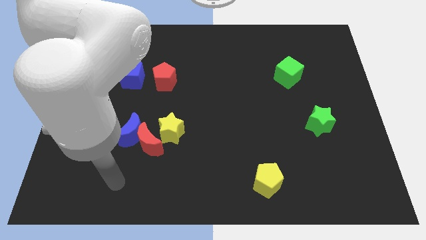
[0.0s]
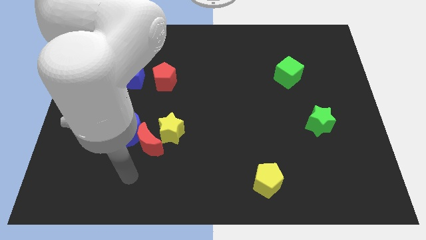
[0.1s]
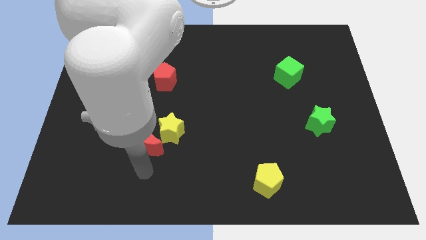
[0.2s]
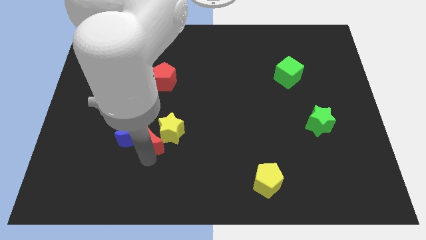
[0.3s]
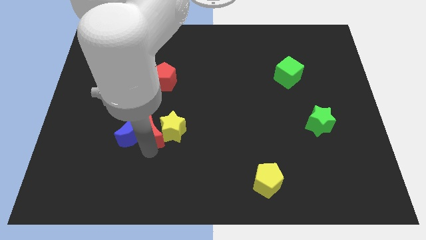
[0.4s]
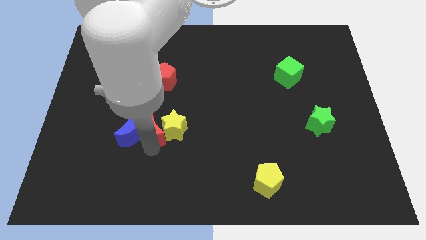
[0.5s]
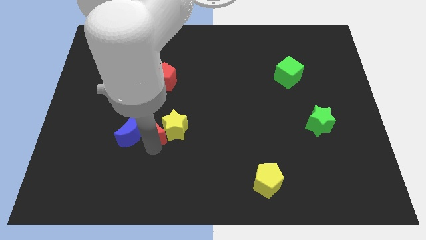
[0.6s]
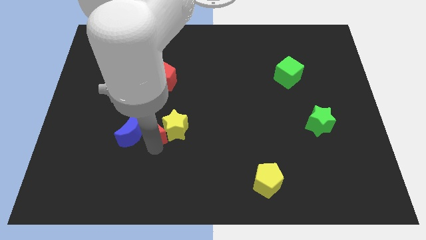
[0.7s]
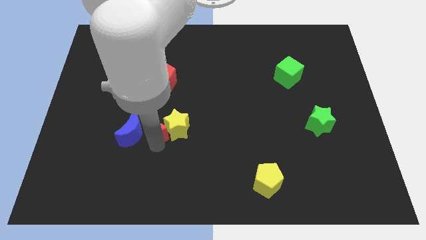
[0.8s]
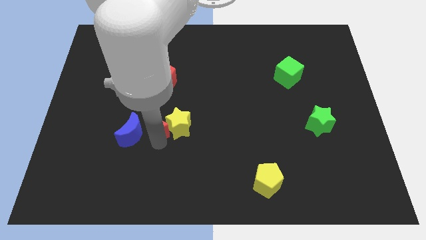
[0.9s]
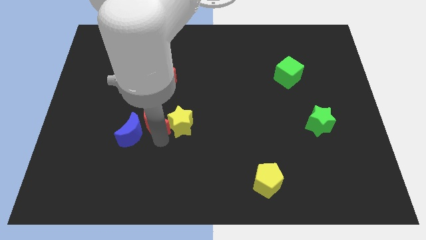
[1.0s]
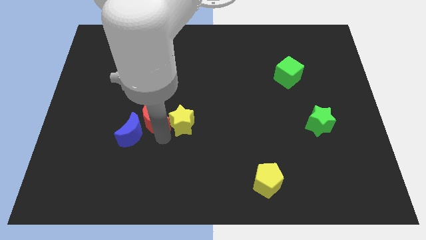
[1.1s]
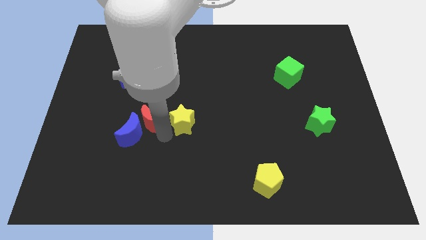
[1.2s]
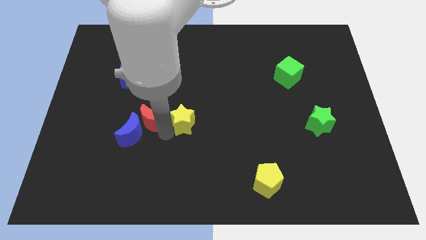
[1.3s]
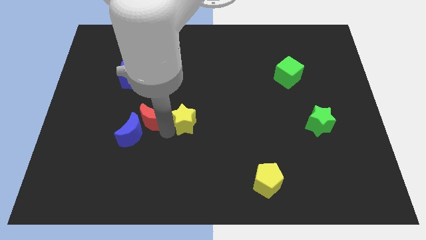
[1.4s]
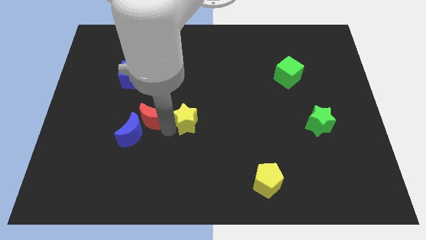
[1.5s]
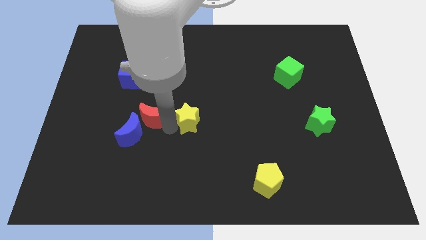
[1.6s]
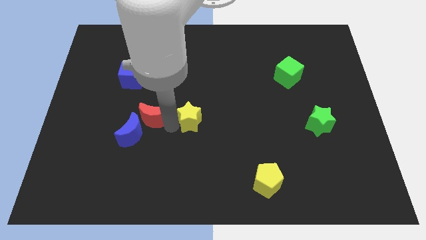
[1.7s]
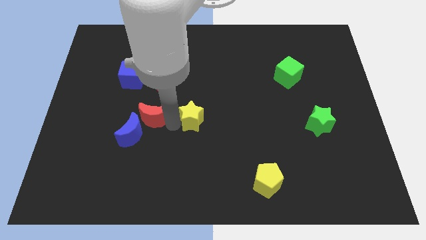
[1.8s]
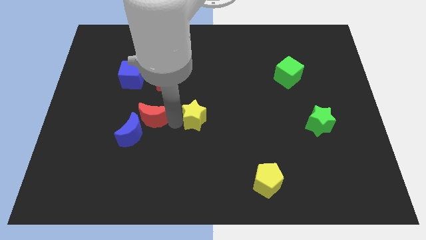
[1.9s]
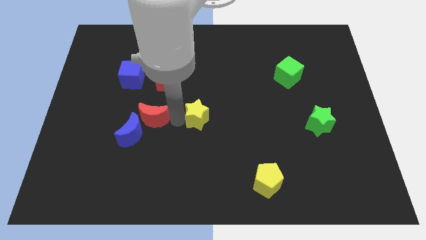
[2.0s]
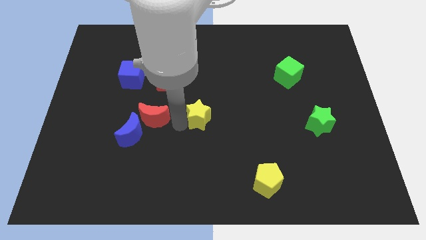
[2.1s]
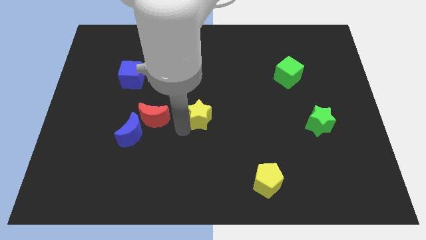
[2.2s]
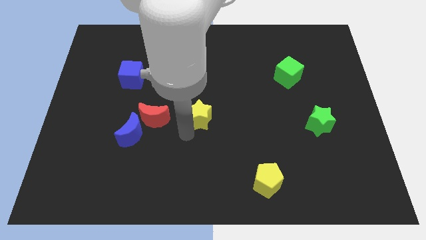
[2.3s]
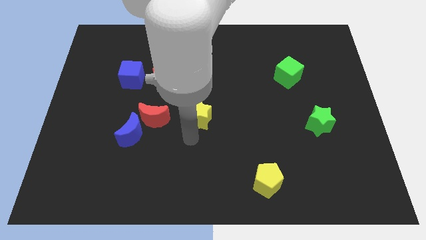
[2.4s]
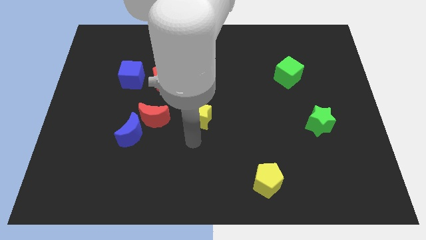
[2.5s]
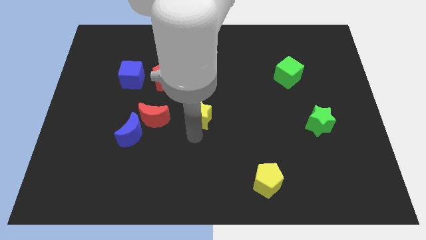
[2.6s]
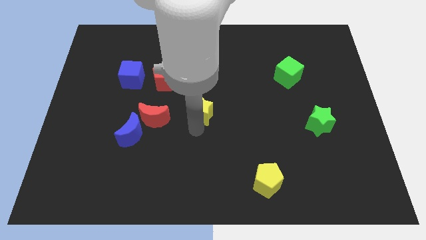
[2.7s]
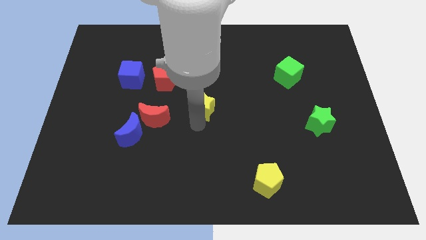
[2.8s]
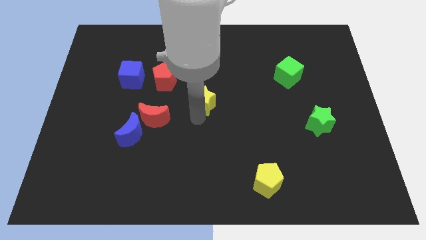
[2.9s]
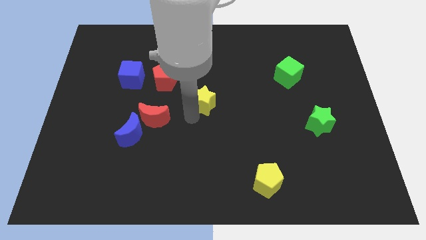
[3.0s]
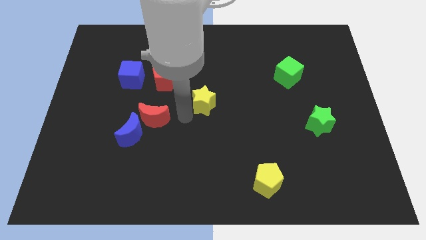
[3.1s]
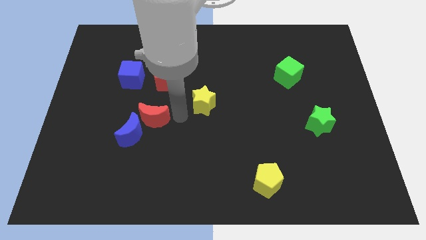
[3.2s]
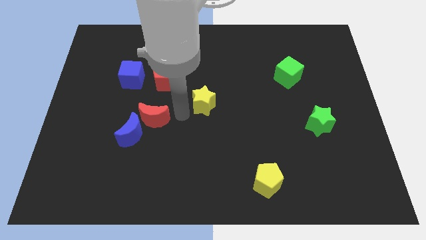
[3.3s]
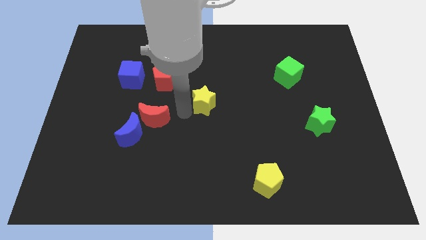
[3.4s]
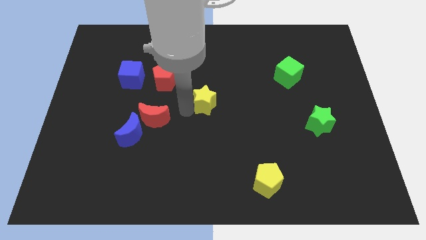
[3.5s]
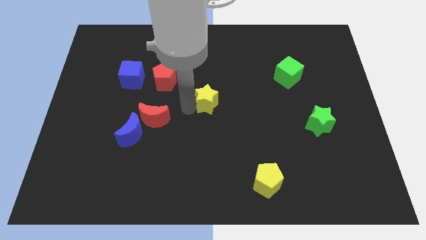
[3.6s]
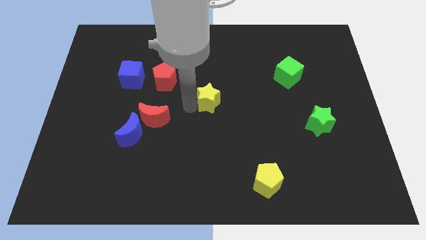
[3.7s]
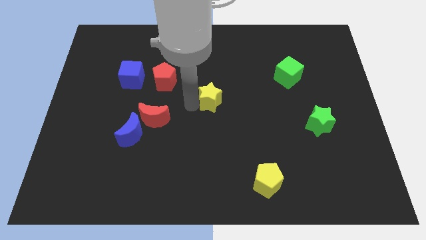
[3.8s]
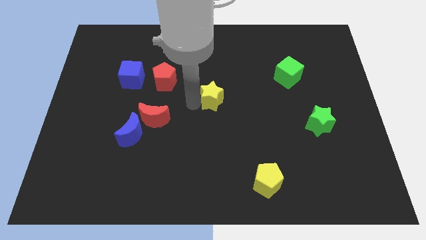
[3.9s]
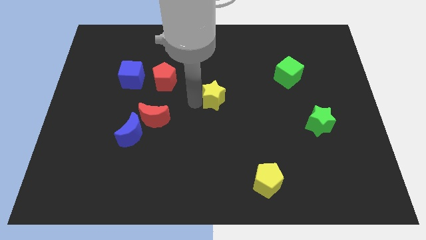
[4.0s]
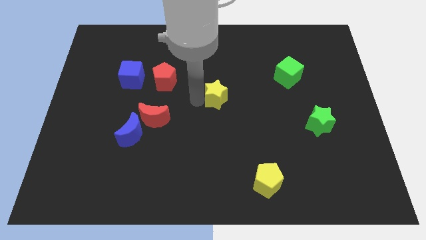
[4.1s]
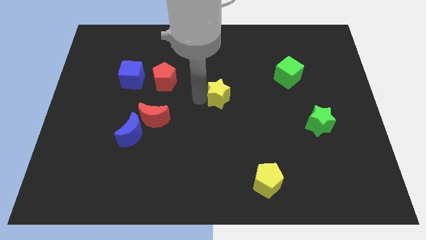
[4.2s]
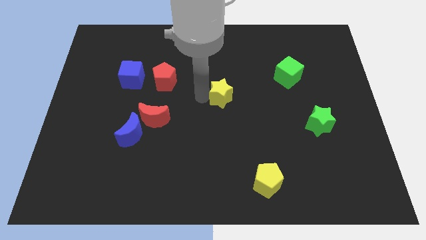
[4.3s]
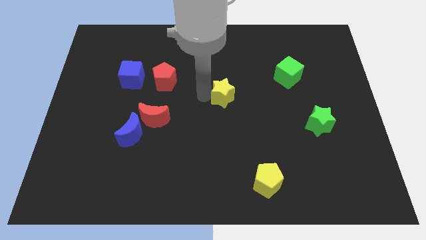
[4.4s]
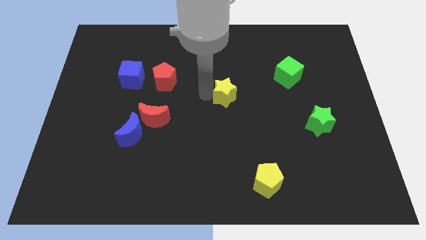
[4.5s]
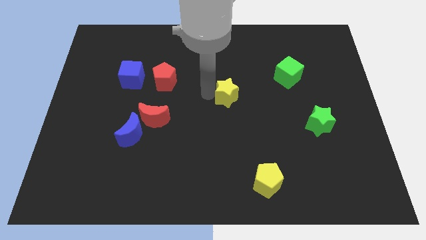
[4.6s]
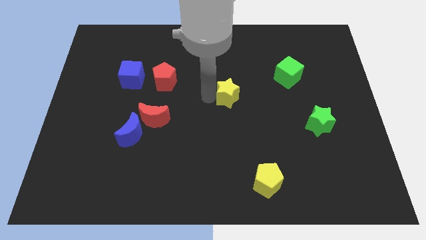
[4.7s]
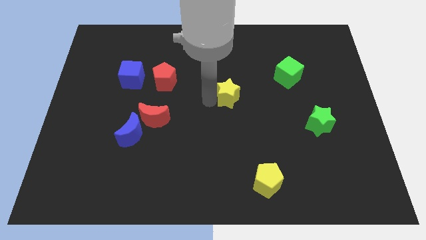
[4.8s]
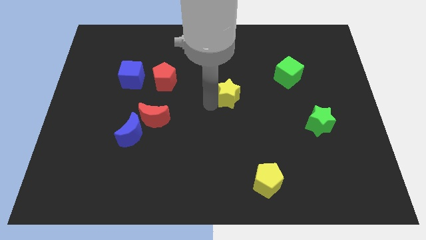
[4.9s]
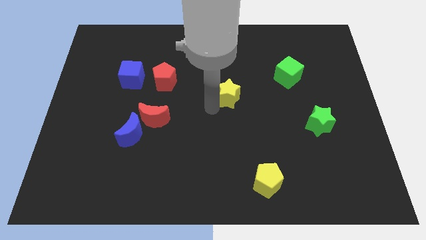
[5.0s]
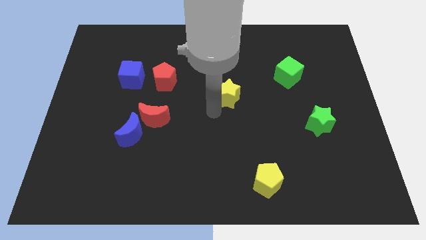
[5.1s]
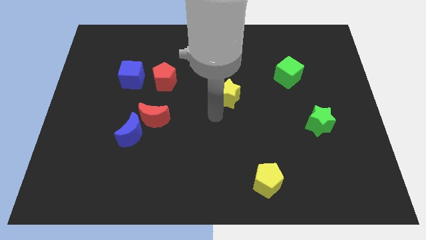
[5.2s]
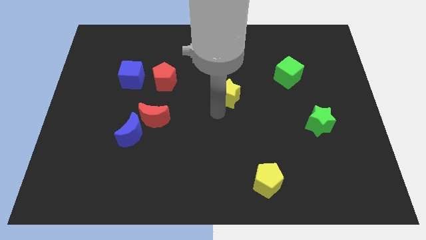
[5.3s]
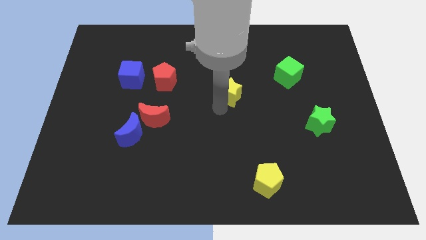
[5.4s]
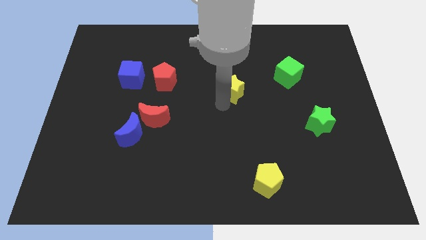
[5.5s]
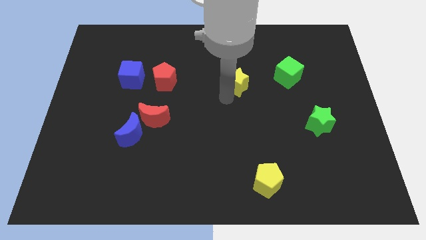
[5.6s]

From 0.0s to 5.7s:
move the yellow star up and then right

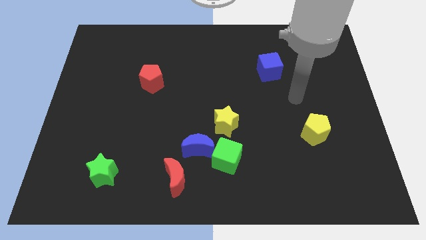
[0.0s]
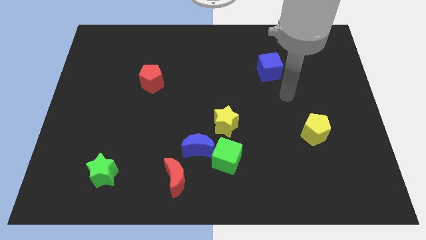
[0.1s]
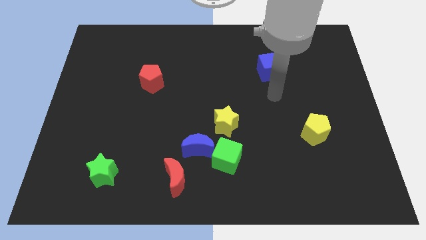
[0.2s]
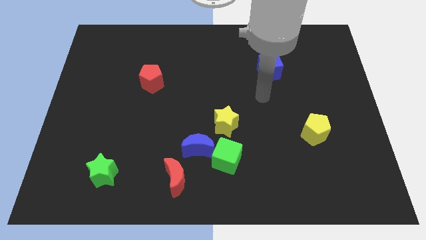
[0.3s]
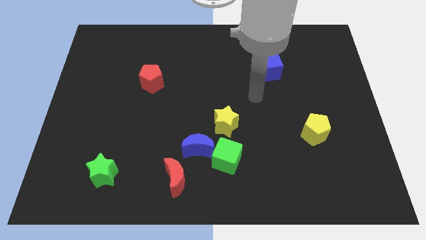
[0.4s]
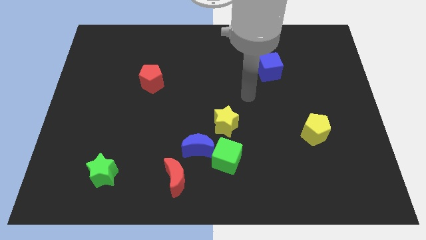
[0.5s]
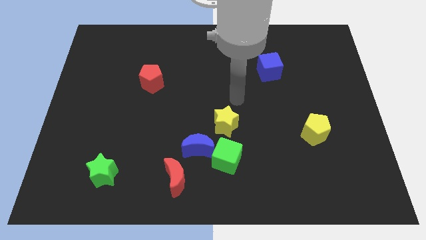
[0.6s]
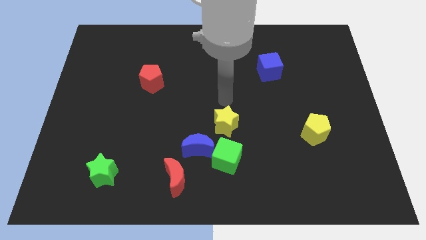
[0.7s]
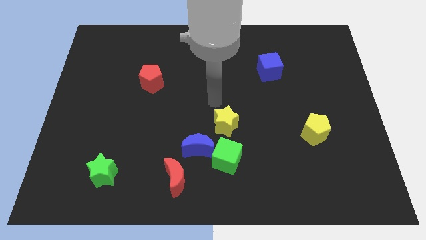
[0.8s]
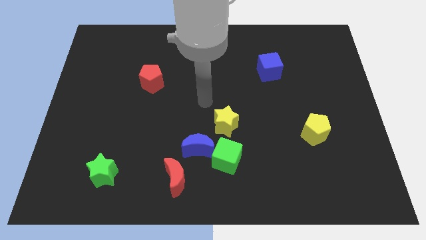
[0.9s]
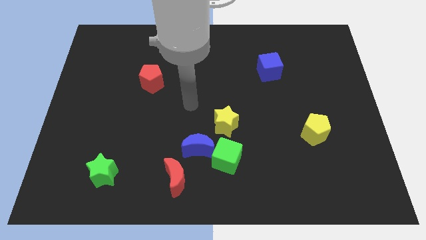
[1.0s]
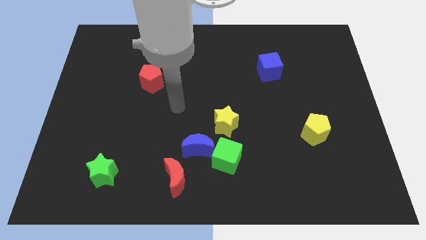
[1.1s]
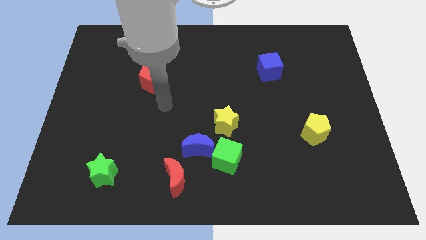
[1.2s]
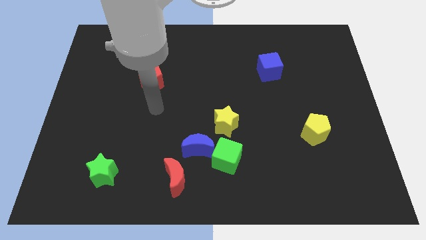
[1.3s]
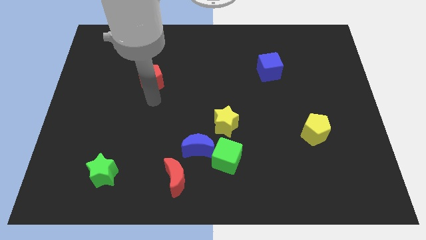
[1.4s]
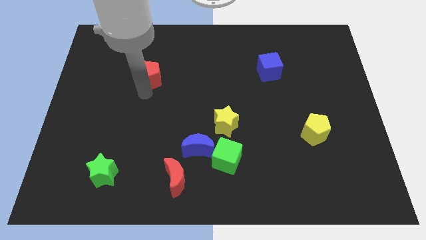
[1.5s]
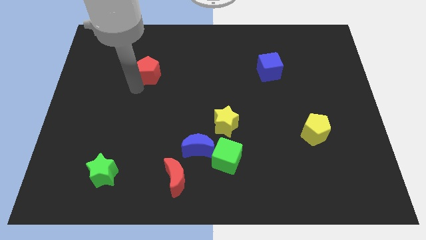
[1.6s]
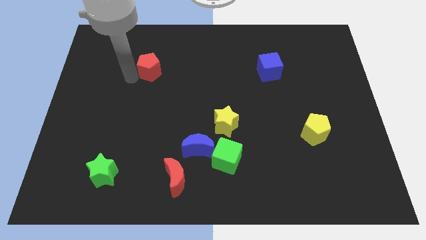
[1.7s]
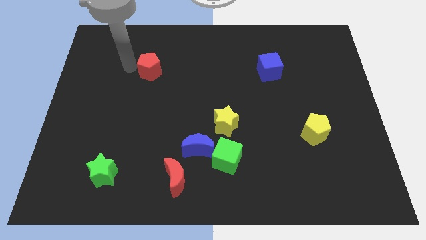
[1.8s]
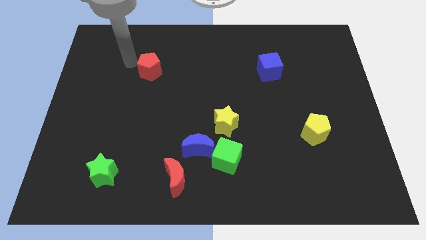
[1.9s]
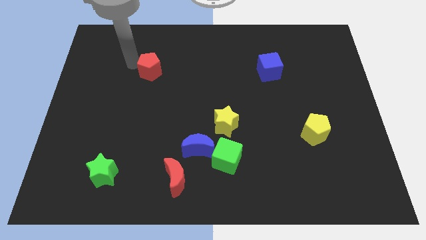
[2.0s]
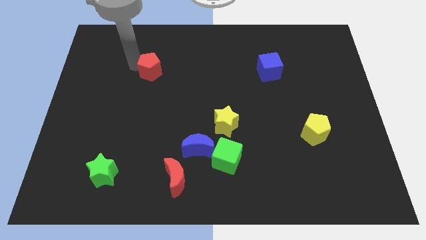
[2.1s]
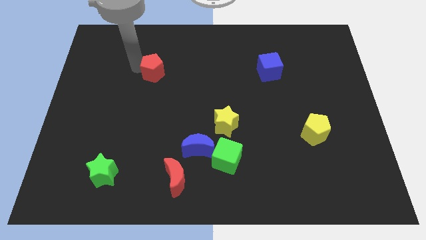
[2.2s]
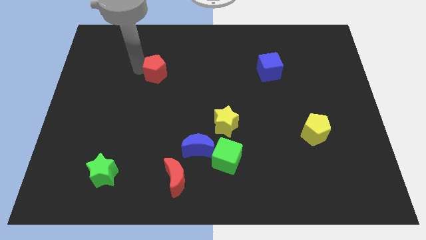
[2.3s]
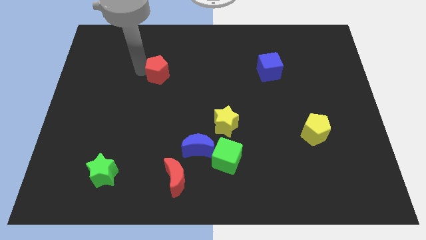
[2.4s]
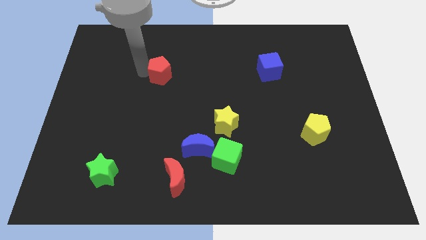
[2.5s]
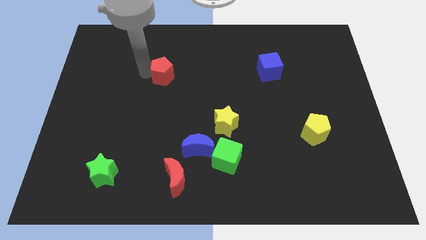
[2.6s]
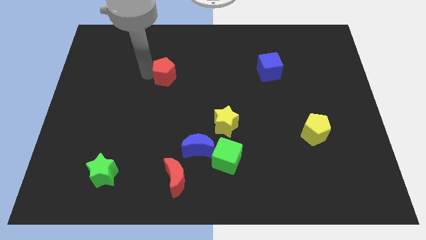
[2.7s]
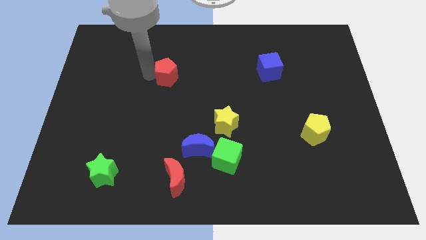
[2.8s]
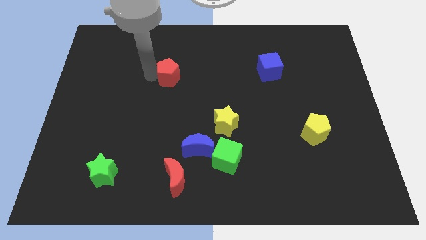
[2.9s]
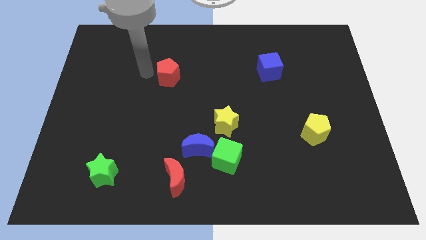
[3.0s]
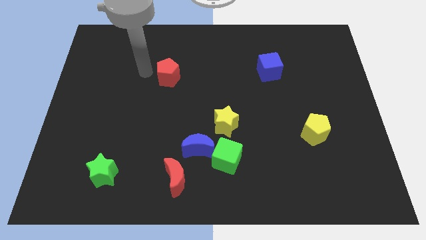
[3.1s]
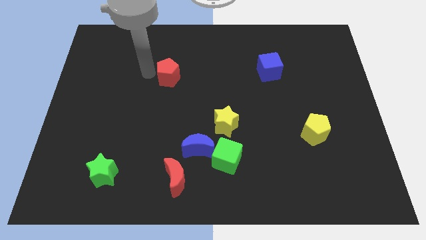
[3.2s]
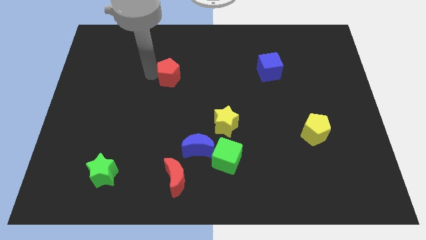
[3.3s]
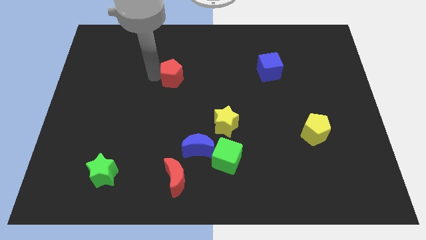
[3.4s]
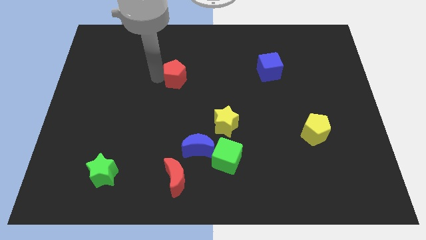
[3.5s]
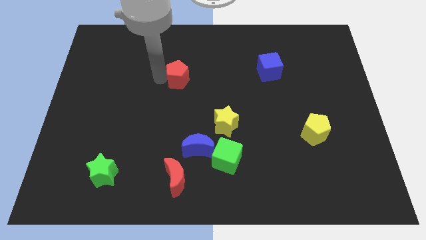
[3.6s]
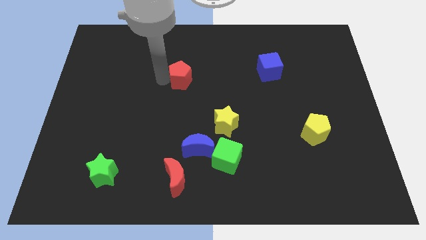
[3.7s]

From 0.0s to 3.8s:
push the red pentagon to the right somewhat
